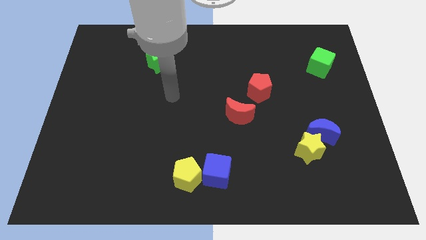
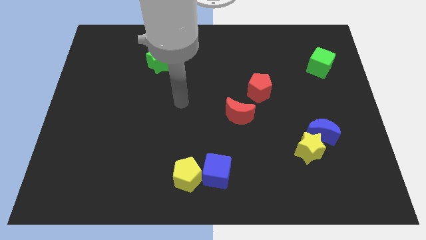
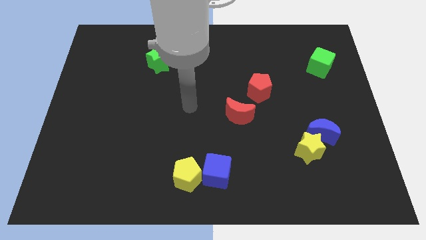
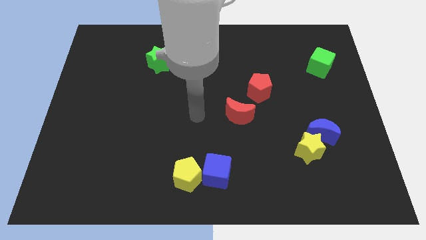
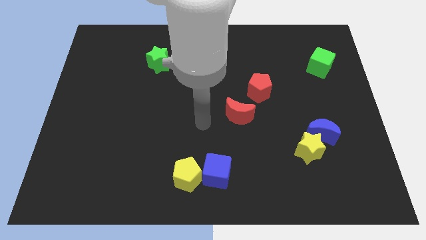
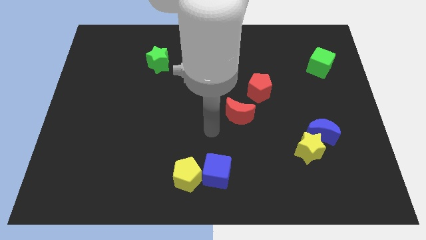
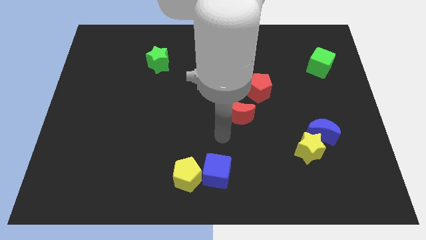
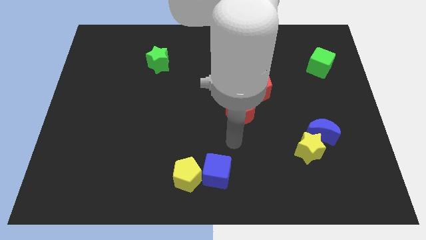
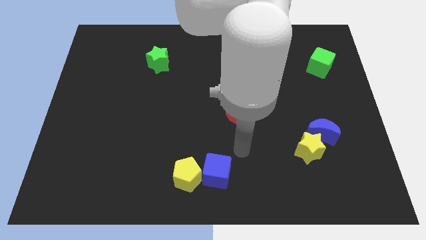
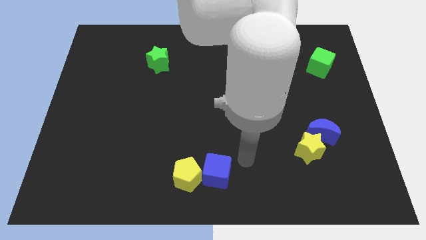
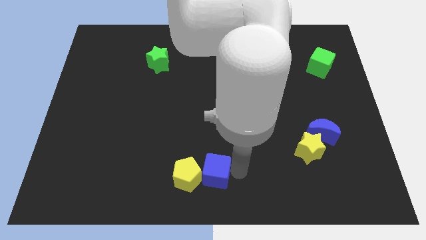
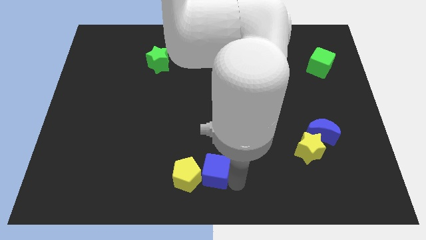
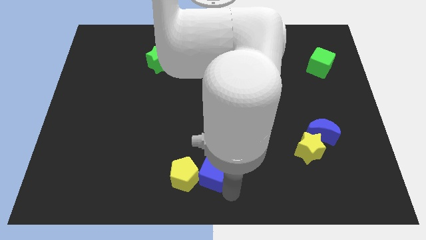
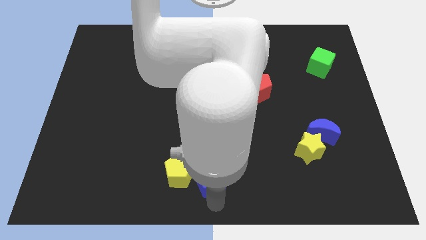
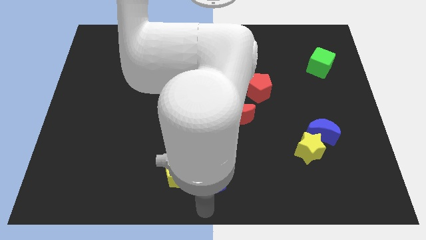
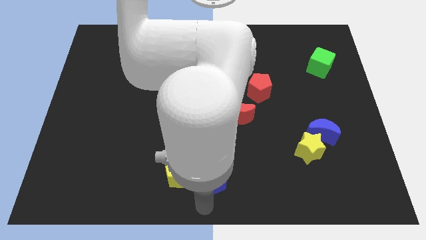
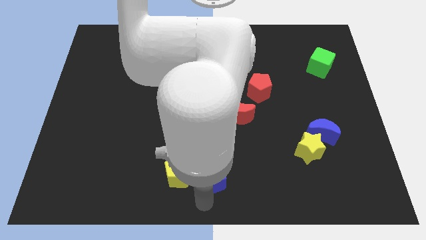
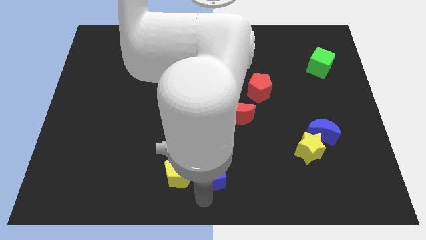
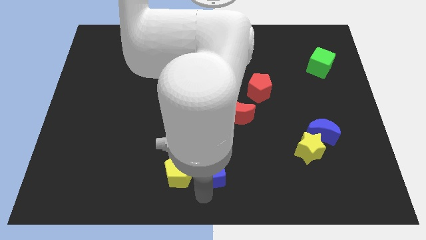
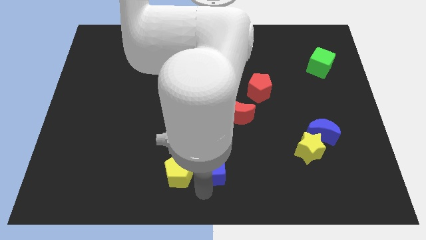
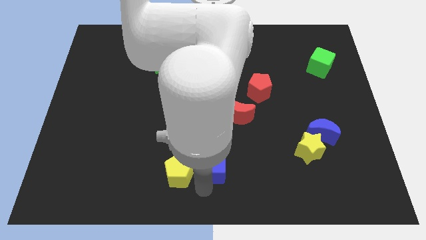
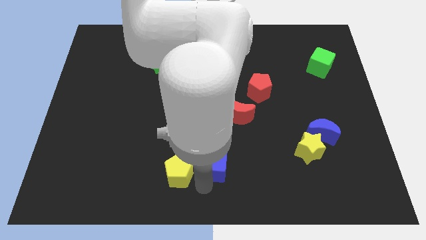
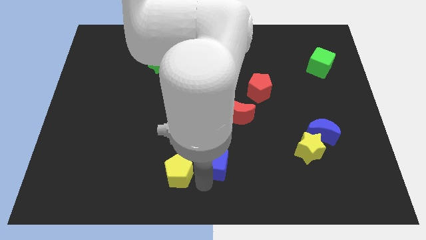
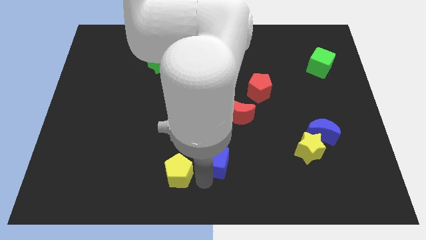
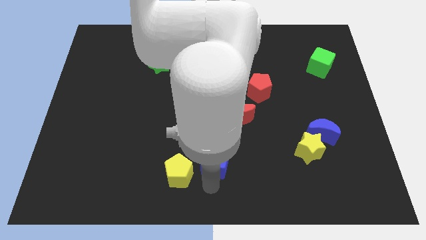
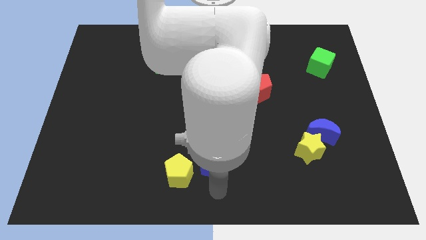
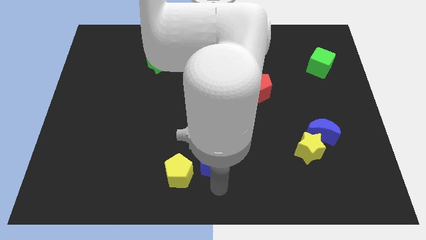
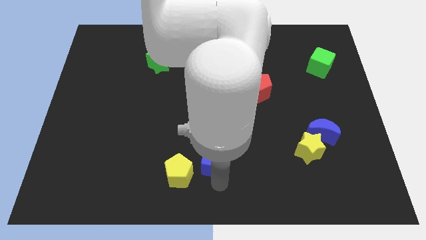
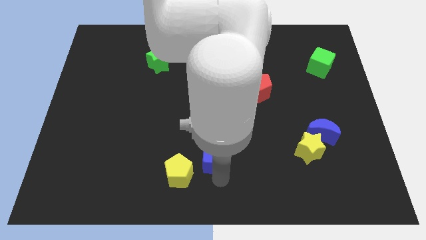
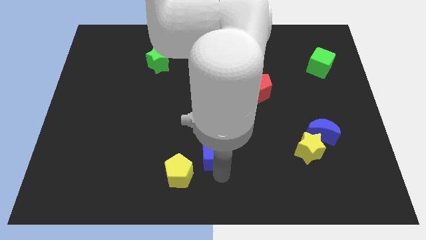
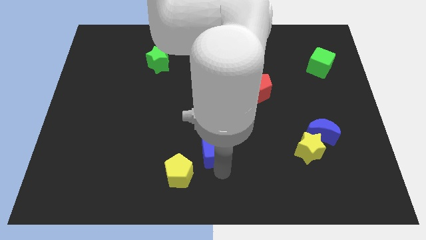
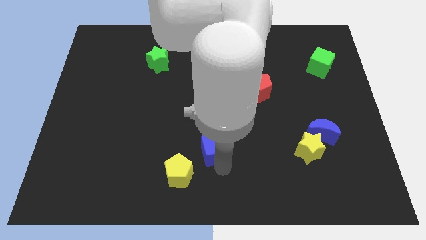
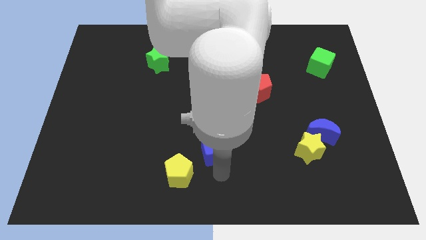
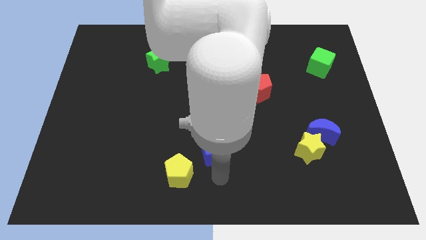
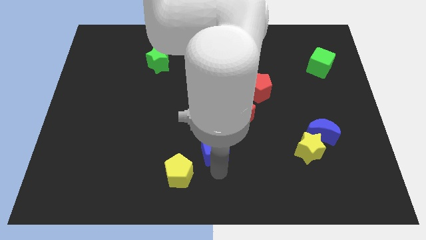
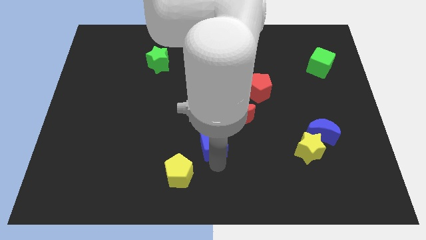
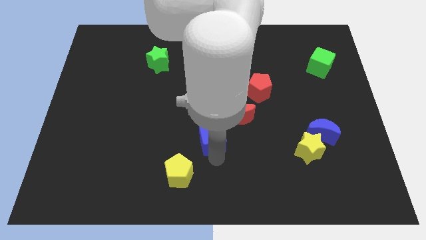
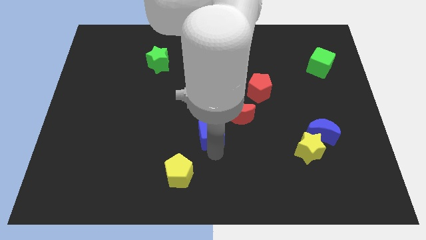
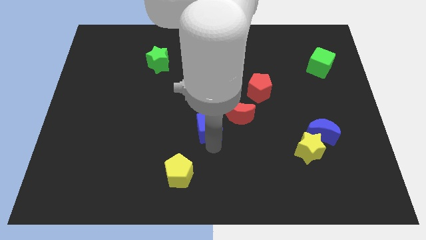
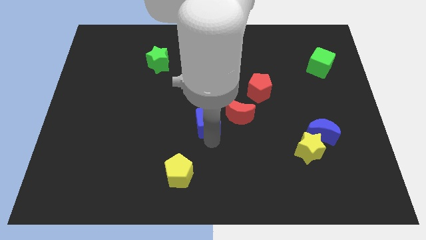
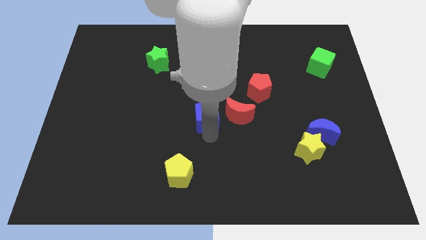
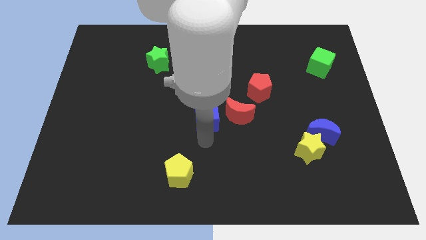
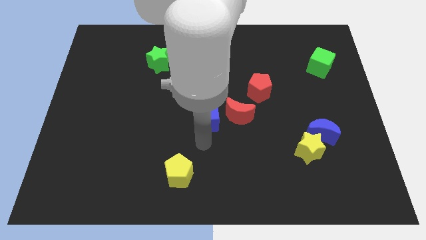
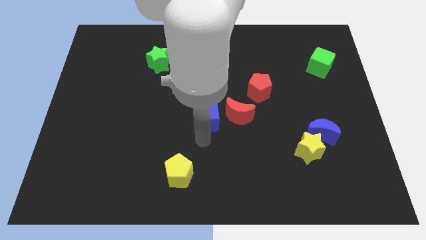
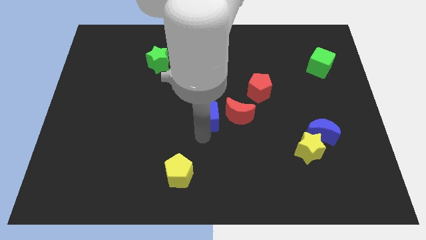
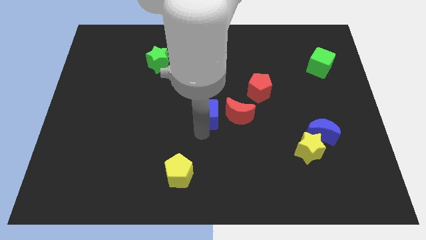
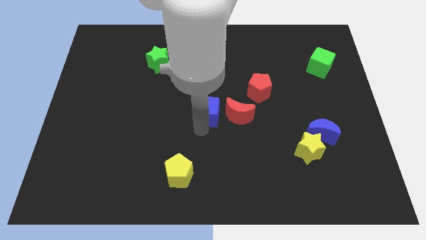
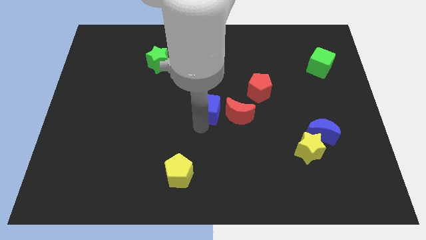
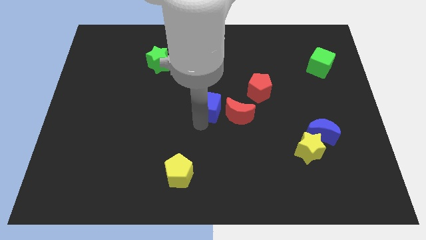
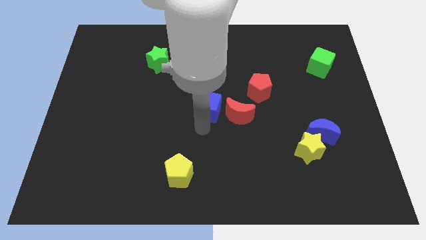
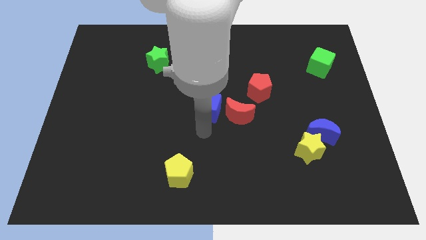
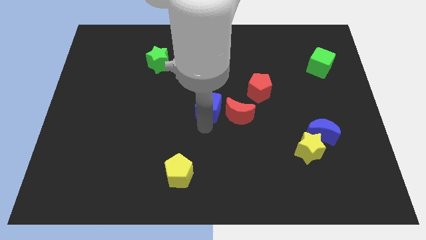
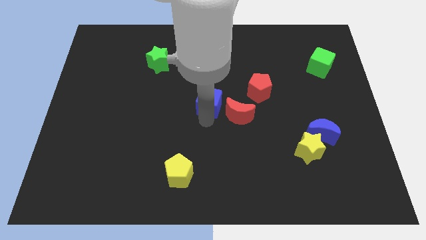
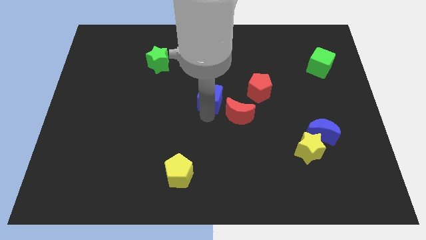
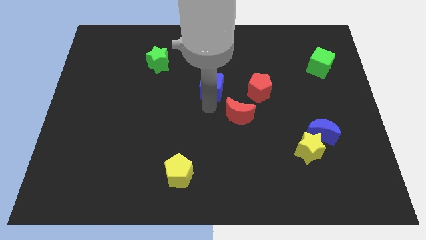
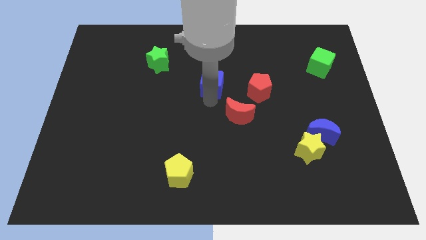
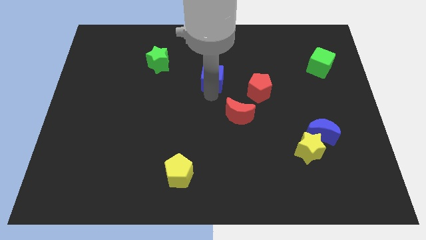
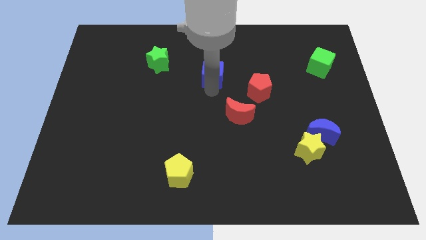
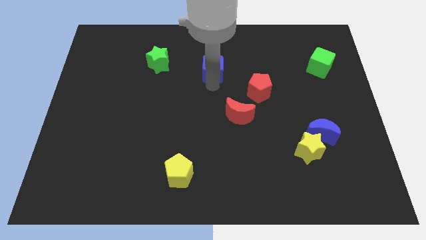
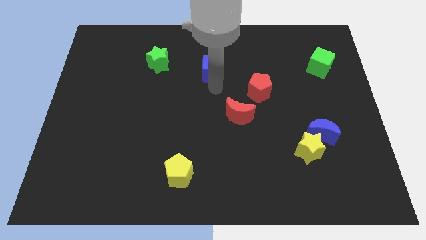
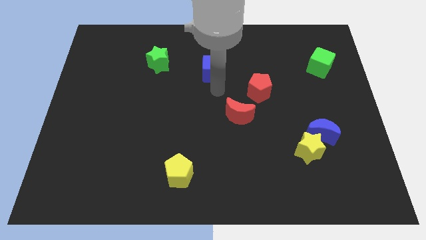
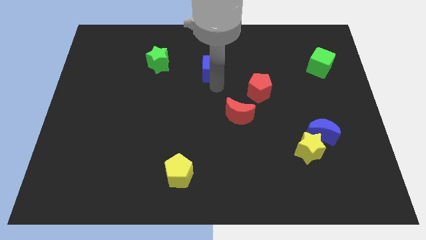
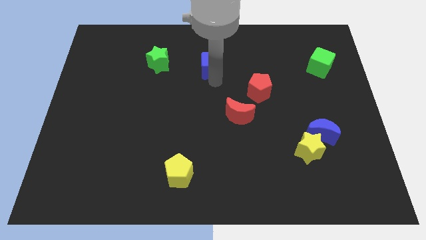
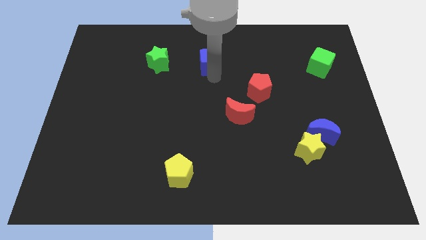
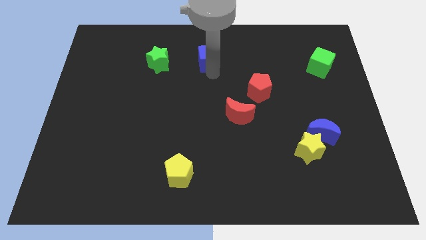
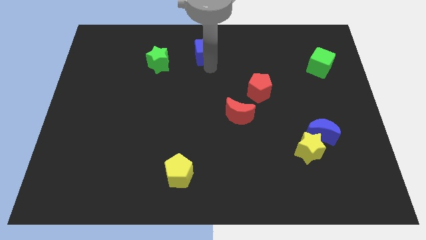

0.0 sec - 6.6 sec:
move the blue cube to the top side
